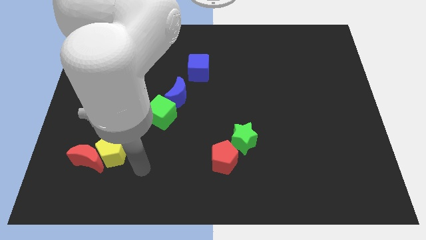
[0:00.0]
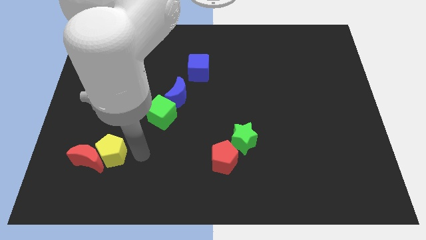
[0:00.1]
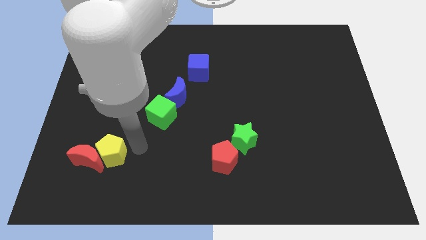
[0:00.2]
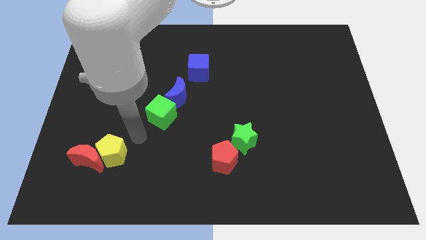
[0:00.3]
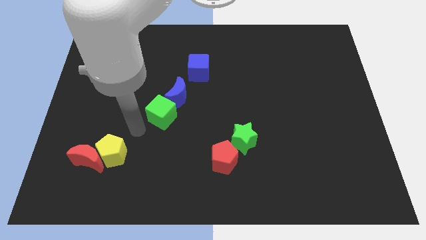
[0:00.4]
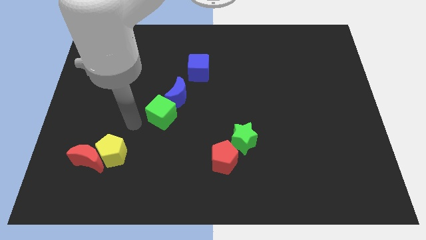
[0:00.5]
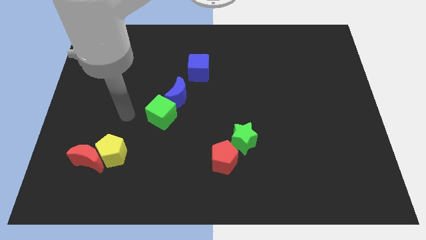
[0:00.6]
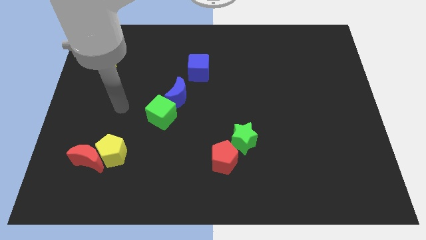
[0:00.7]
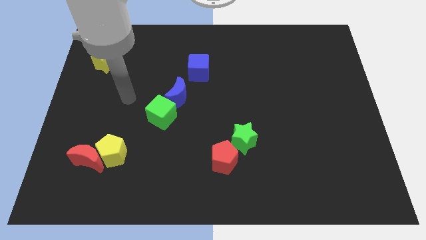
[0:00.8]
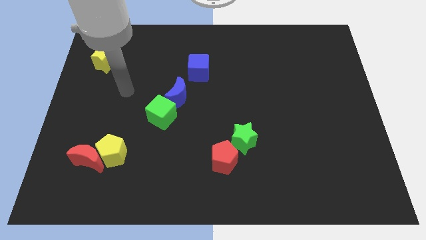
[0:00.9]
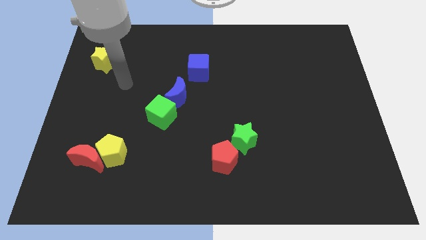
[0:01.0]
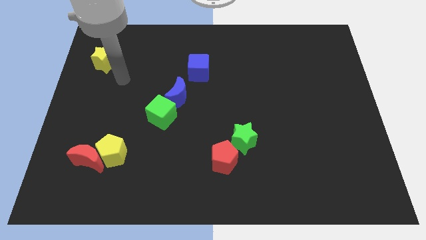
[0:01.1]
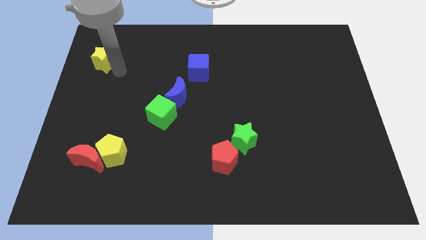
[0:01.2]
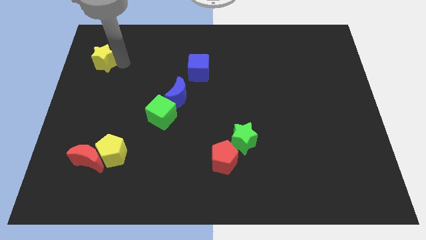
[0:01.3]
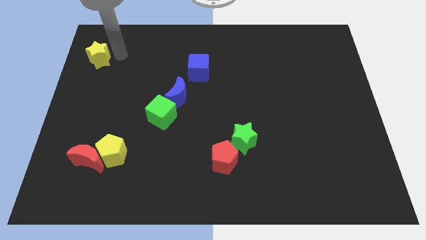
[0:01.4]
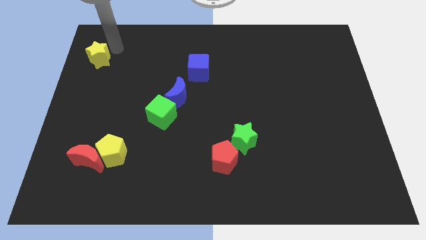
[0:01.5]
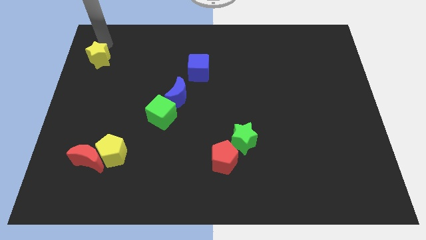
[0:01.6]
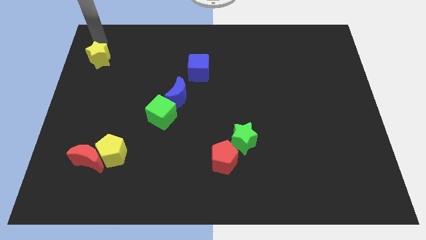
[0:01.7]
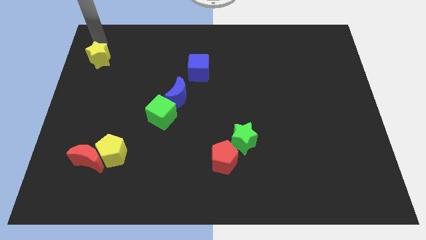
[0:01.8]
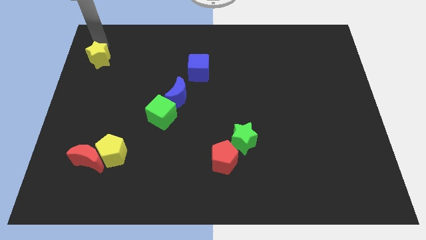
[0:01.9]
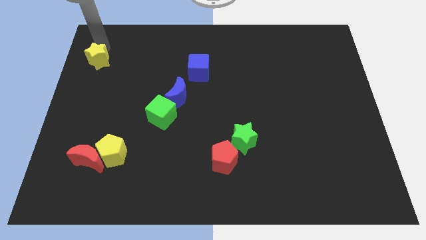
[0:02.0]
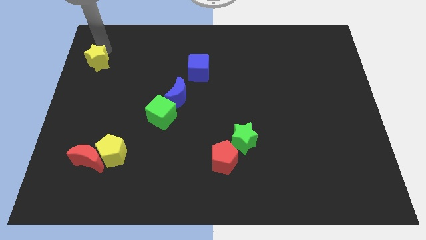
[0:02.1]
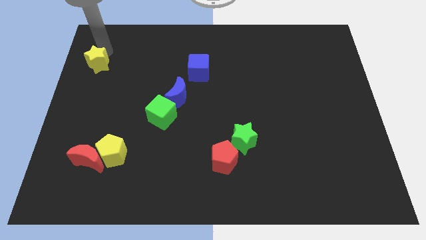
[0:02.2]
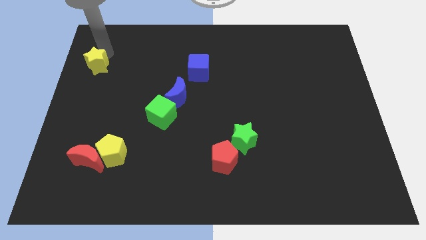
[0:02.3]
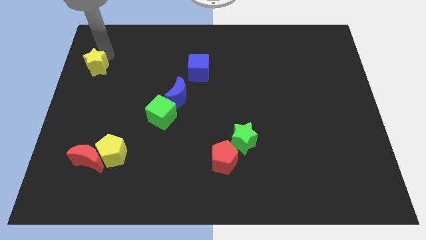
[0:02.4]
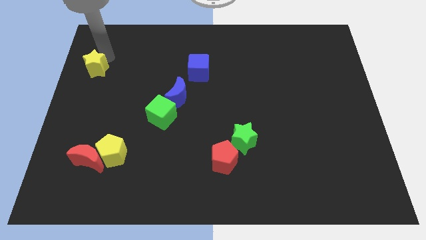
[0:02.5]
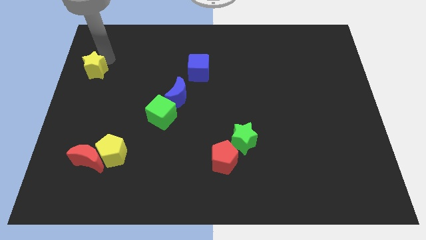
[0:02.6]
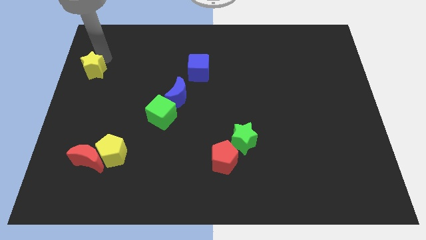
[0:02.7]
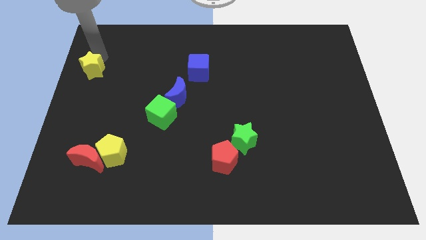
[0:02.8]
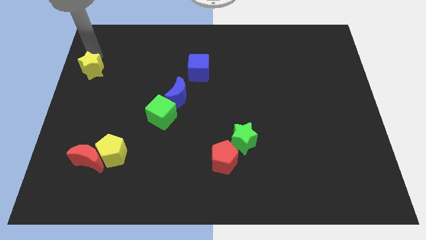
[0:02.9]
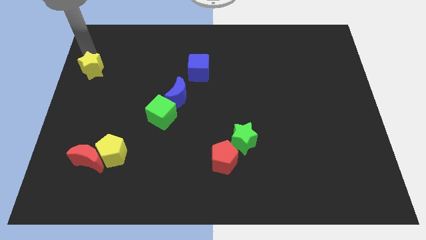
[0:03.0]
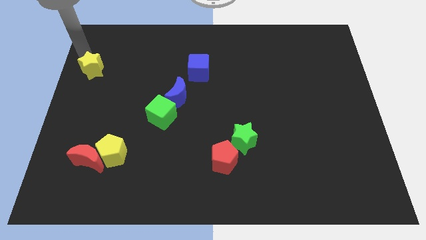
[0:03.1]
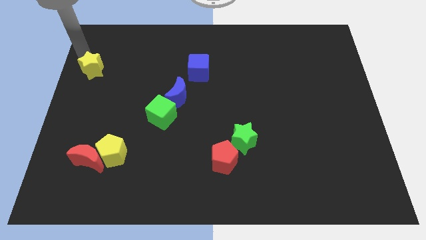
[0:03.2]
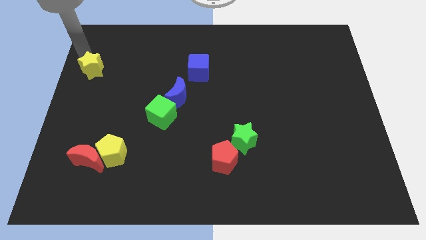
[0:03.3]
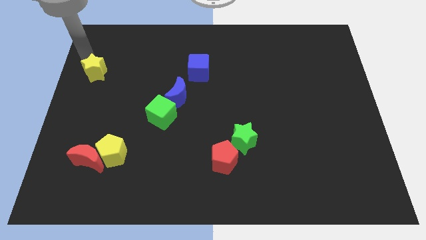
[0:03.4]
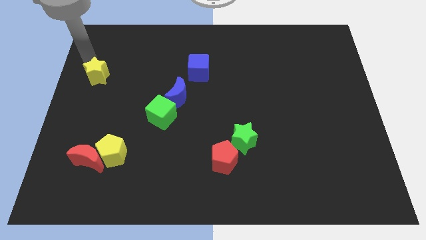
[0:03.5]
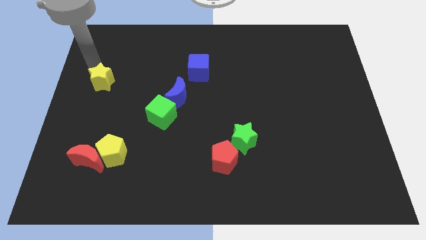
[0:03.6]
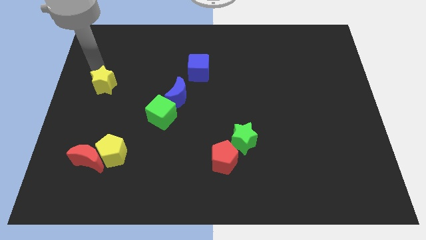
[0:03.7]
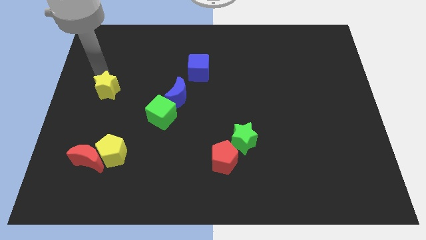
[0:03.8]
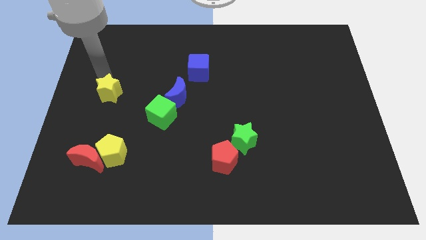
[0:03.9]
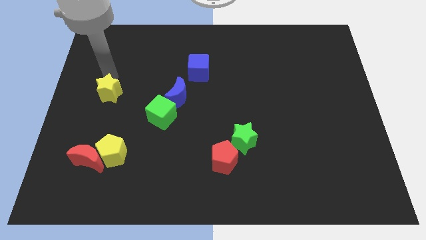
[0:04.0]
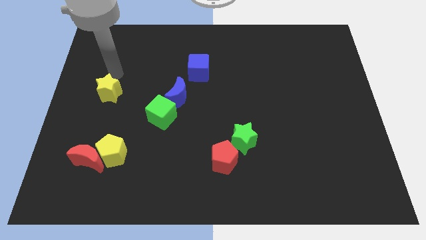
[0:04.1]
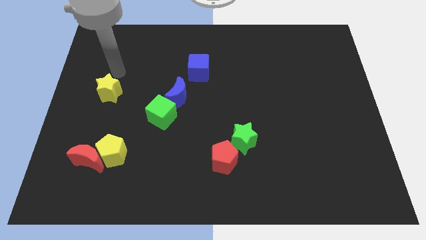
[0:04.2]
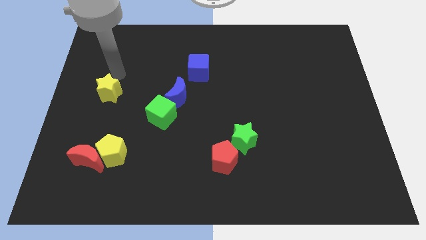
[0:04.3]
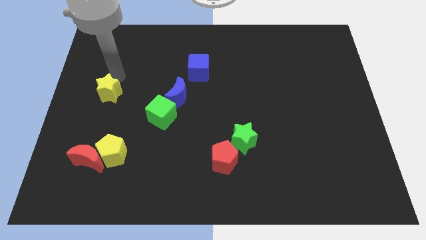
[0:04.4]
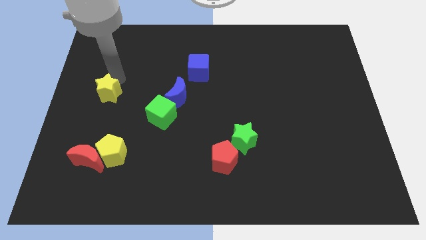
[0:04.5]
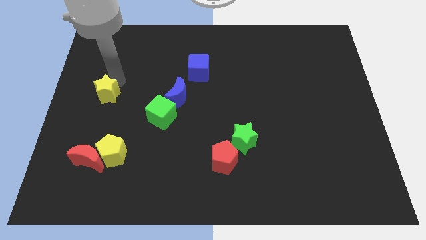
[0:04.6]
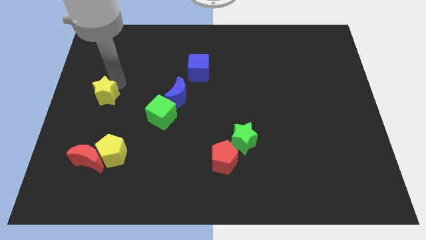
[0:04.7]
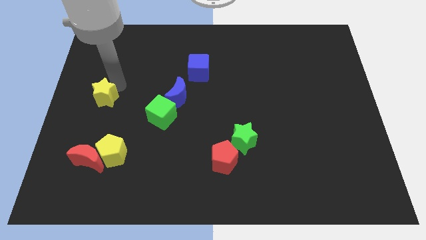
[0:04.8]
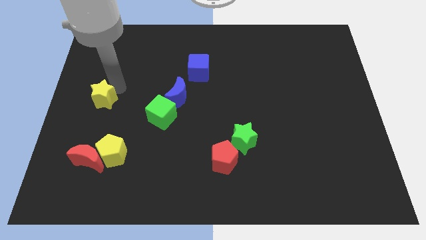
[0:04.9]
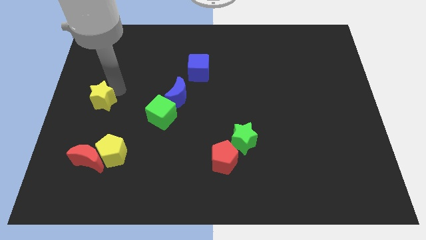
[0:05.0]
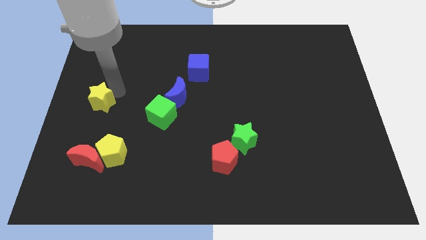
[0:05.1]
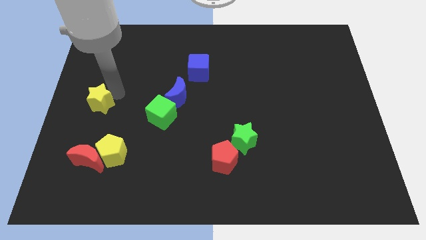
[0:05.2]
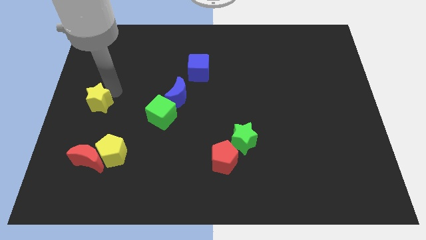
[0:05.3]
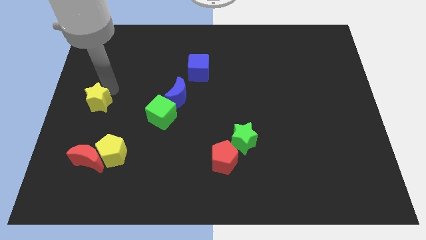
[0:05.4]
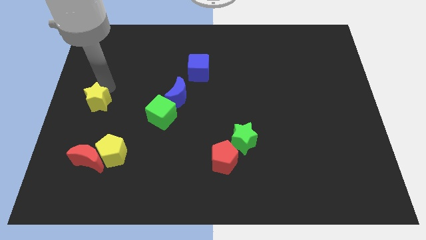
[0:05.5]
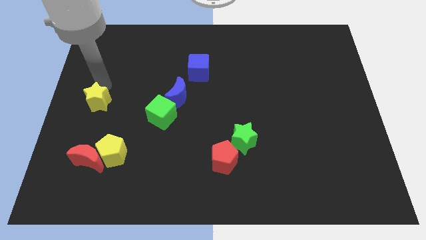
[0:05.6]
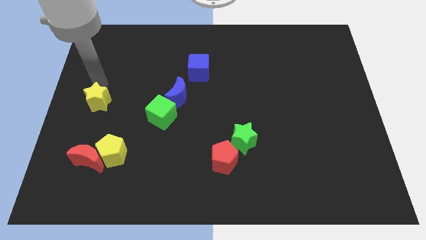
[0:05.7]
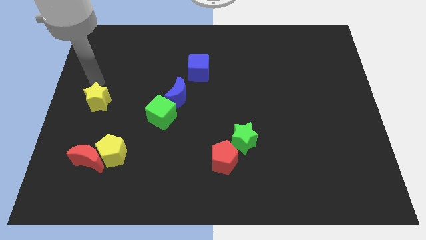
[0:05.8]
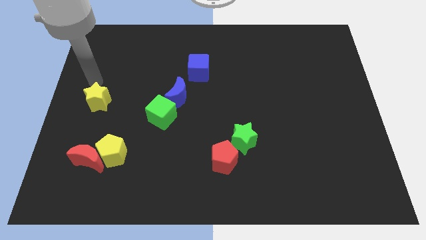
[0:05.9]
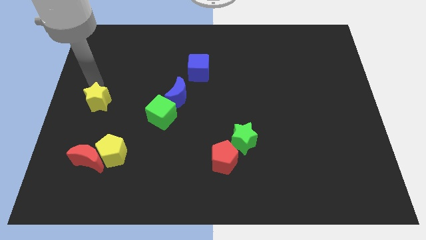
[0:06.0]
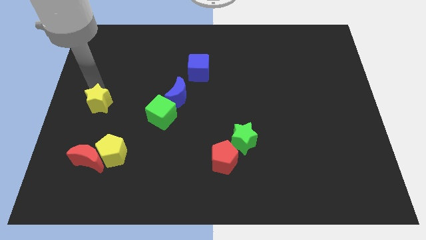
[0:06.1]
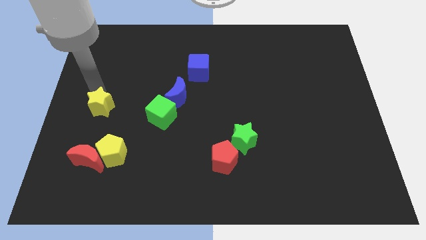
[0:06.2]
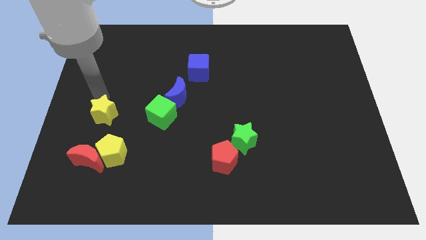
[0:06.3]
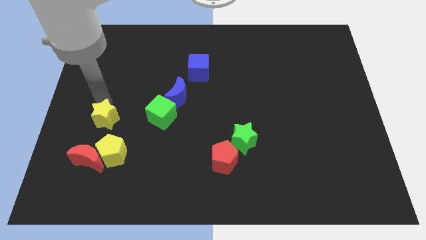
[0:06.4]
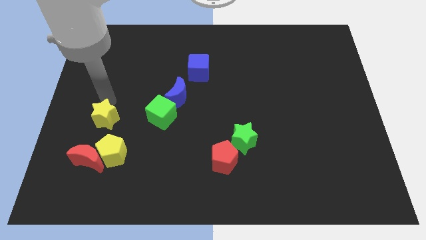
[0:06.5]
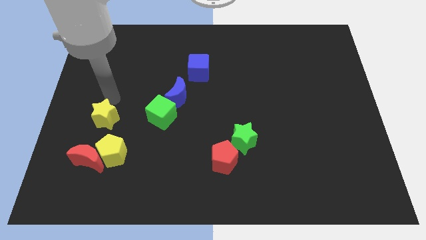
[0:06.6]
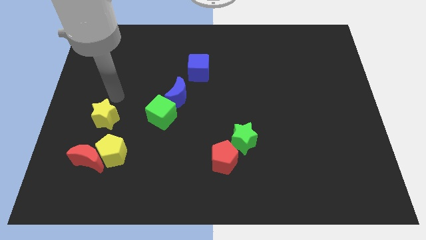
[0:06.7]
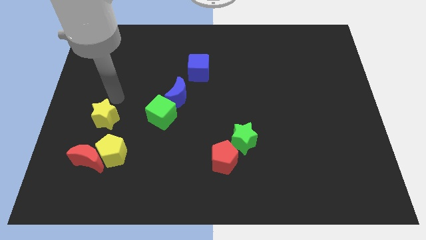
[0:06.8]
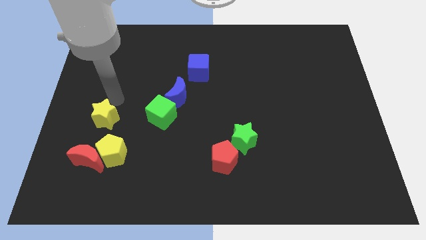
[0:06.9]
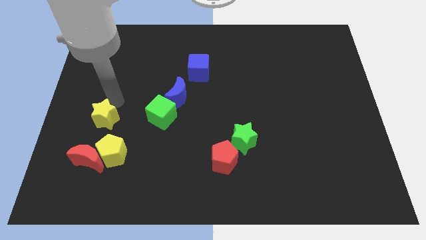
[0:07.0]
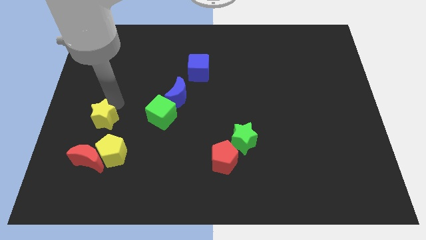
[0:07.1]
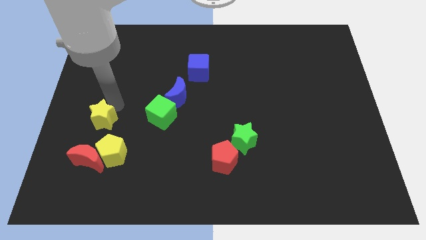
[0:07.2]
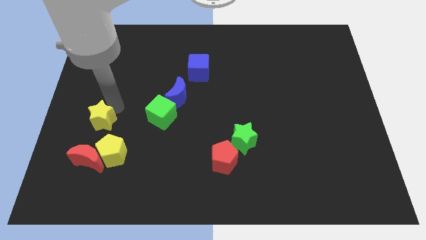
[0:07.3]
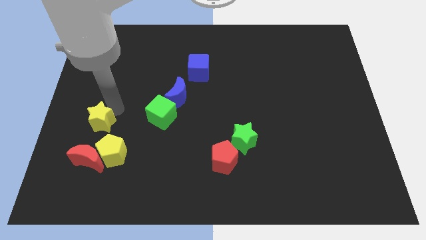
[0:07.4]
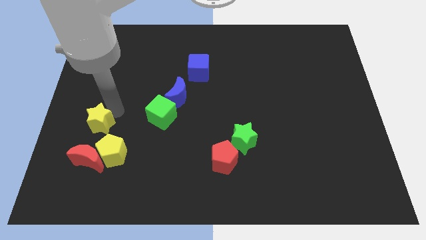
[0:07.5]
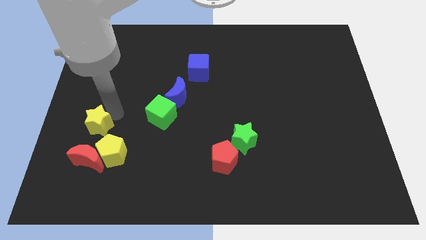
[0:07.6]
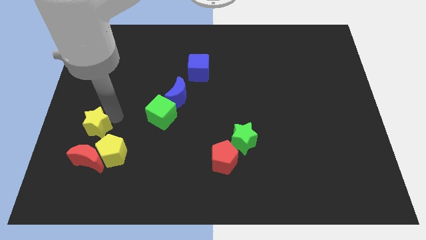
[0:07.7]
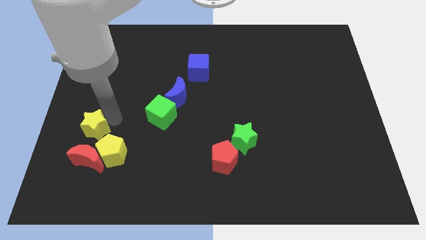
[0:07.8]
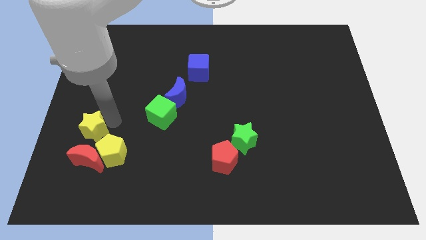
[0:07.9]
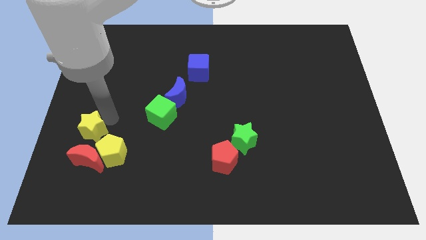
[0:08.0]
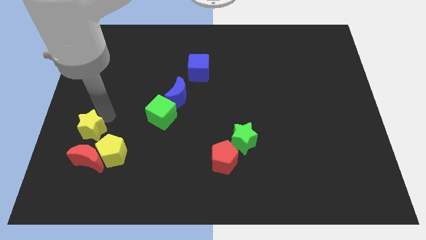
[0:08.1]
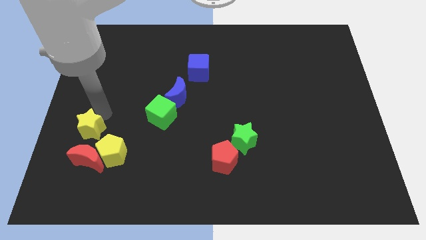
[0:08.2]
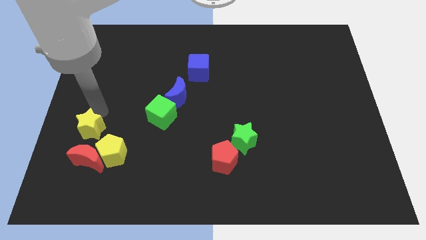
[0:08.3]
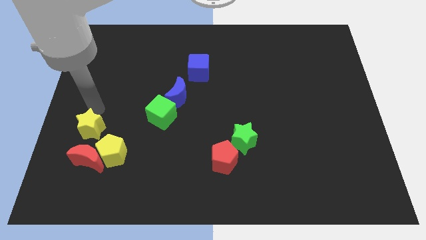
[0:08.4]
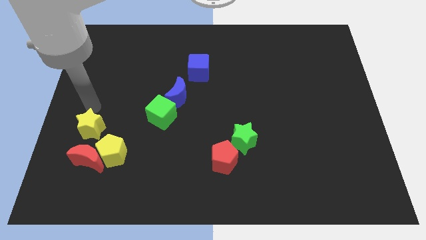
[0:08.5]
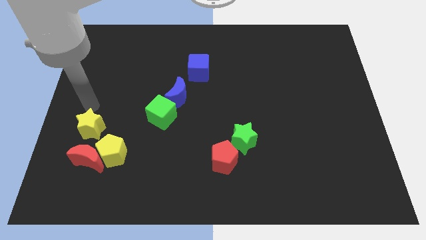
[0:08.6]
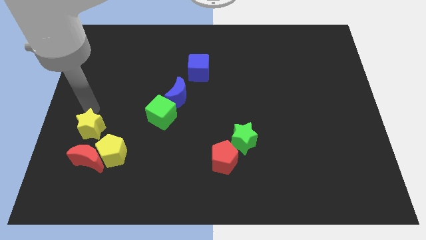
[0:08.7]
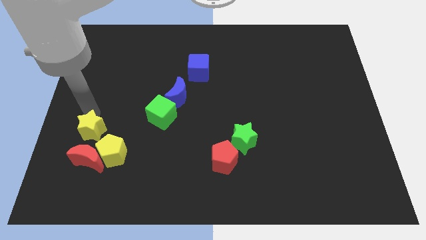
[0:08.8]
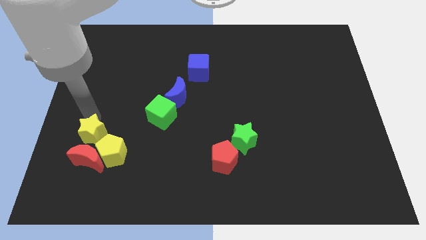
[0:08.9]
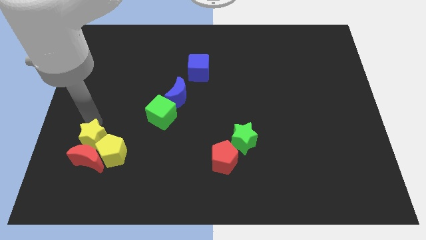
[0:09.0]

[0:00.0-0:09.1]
put the yellow star close to the red moon
